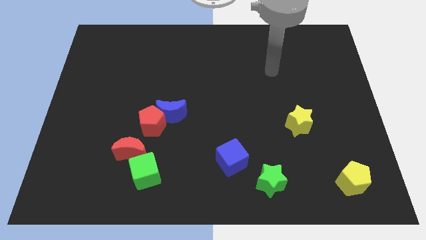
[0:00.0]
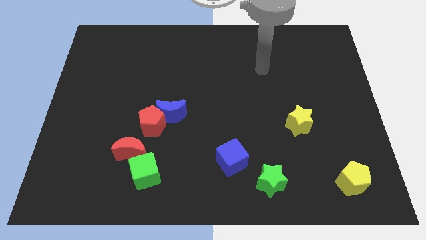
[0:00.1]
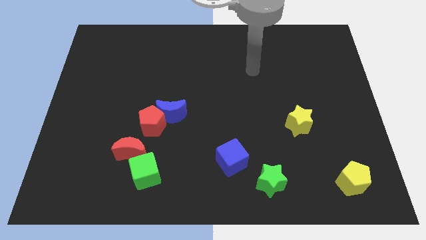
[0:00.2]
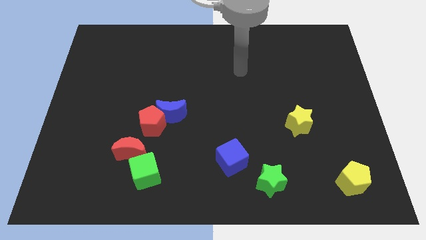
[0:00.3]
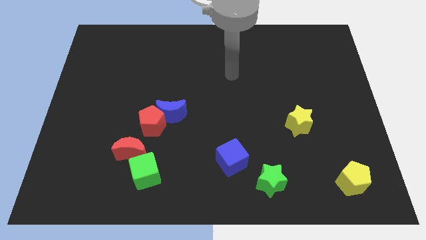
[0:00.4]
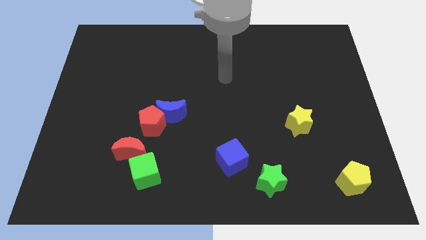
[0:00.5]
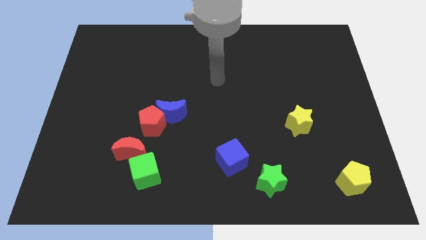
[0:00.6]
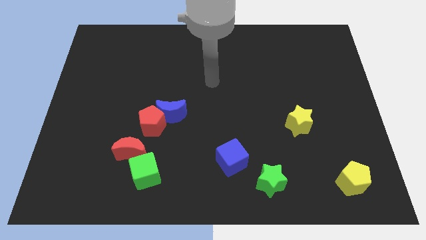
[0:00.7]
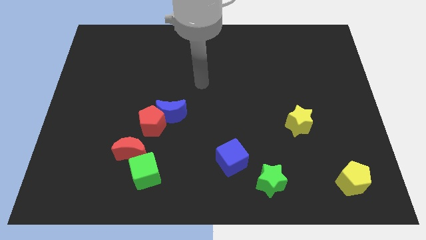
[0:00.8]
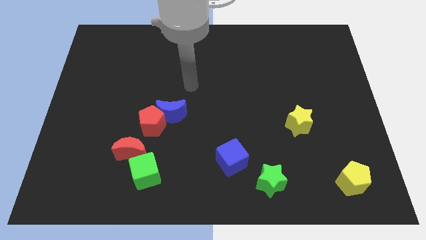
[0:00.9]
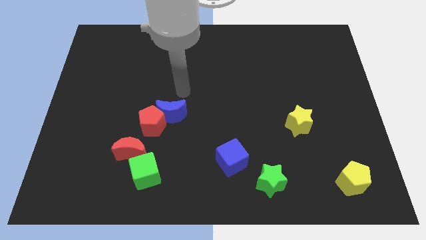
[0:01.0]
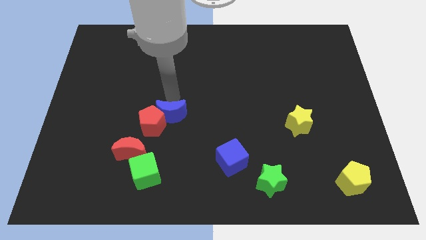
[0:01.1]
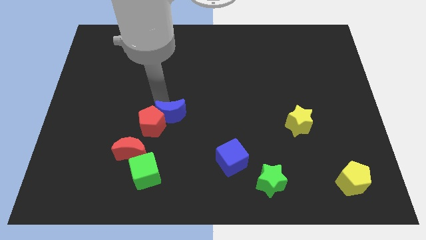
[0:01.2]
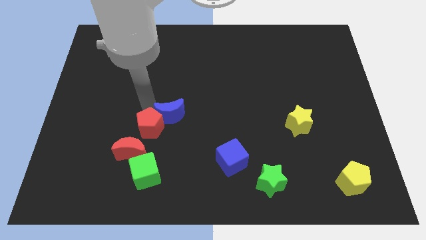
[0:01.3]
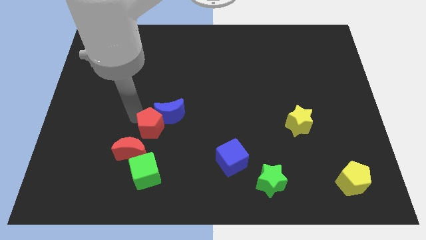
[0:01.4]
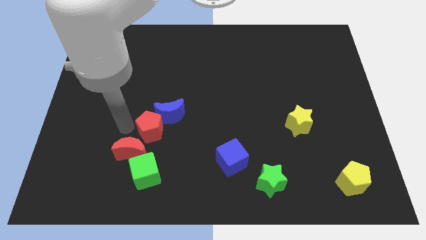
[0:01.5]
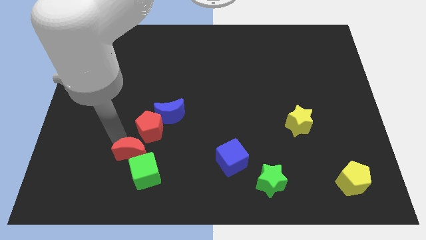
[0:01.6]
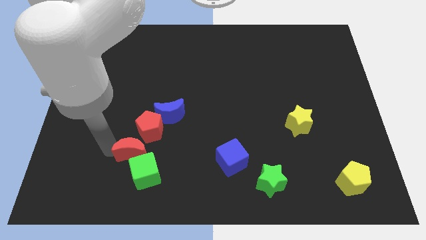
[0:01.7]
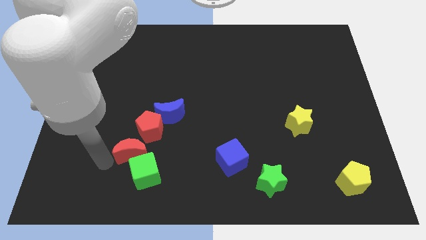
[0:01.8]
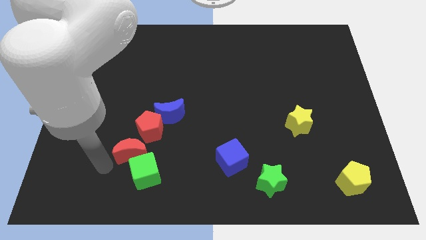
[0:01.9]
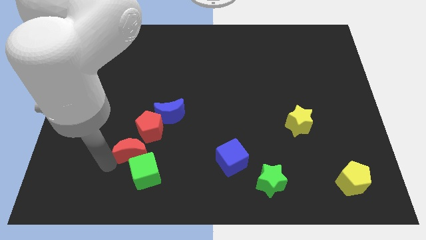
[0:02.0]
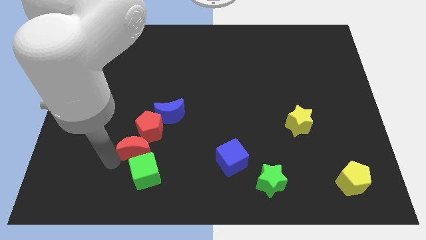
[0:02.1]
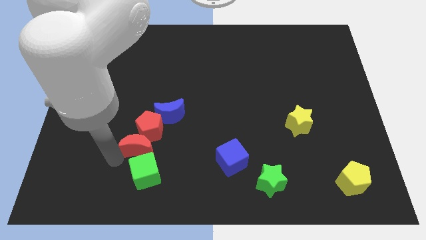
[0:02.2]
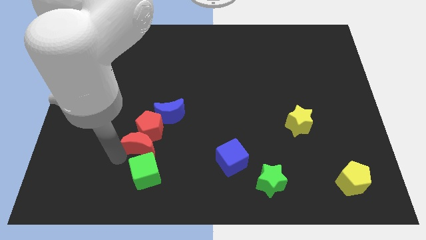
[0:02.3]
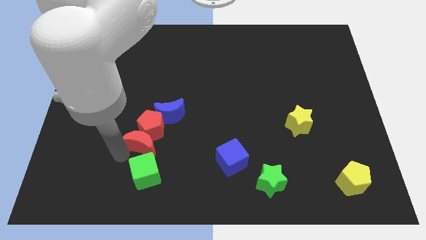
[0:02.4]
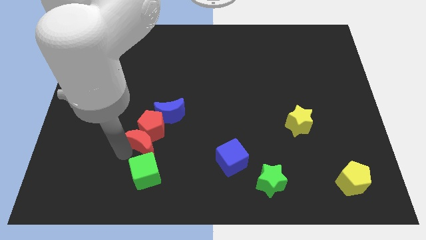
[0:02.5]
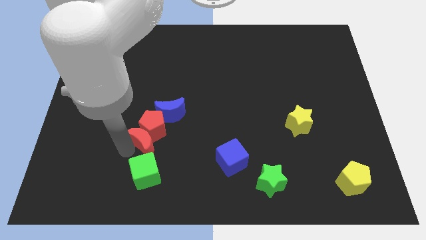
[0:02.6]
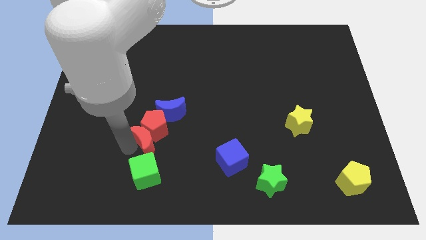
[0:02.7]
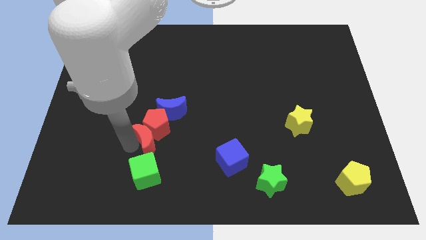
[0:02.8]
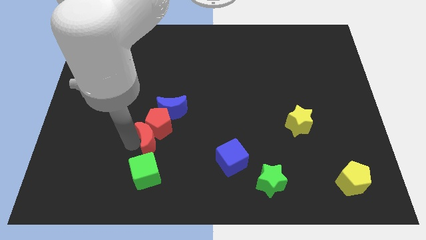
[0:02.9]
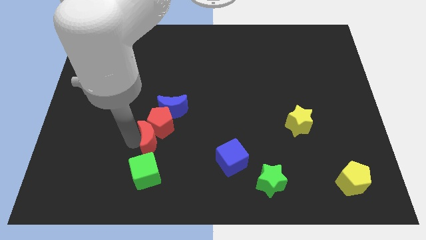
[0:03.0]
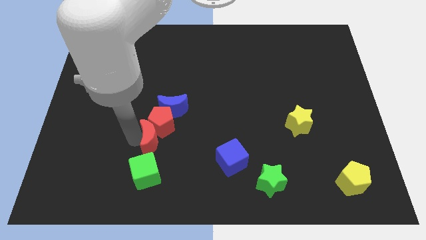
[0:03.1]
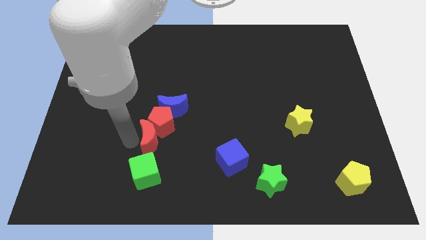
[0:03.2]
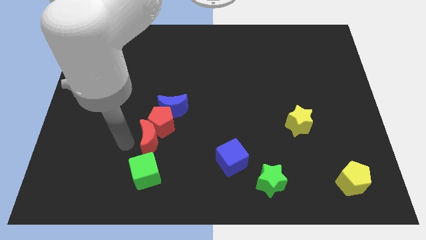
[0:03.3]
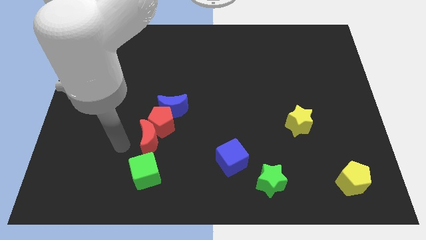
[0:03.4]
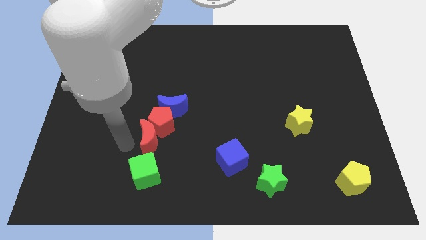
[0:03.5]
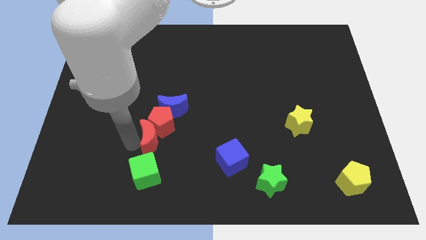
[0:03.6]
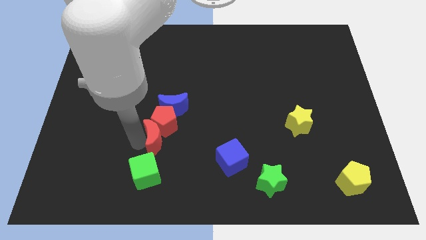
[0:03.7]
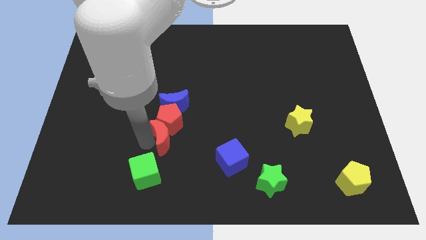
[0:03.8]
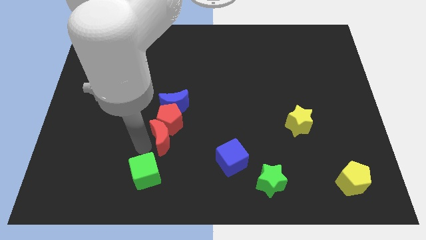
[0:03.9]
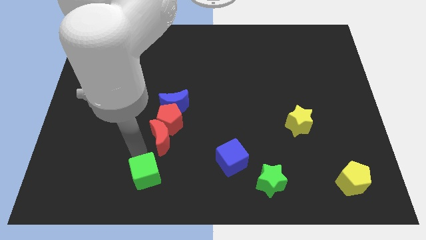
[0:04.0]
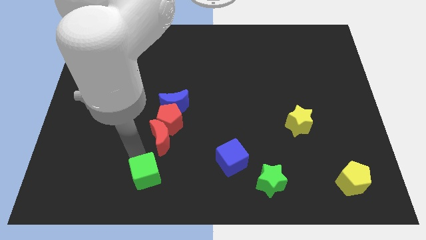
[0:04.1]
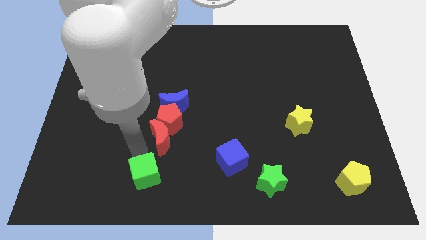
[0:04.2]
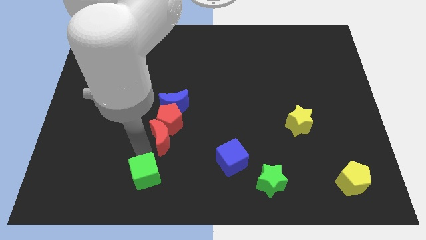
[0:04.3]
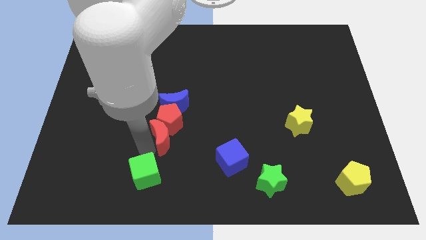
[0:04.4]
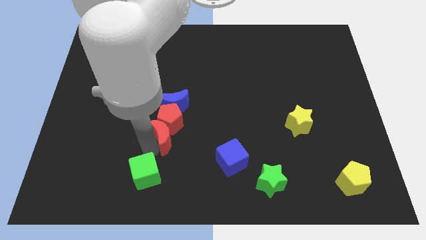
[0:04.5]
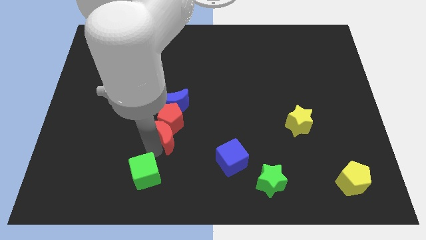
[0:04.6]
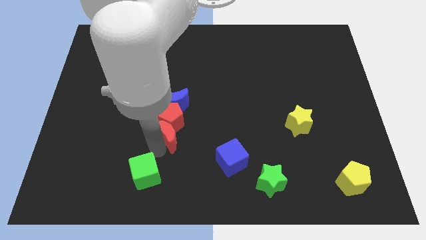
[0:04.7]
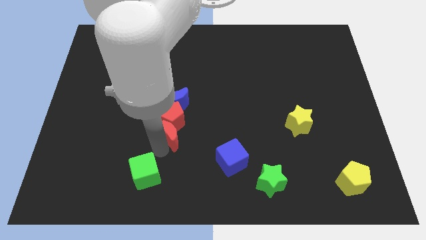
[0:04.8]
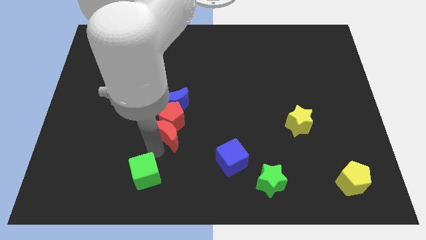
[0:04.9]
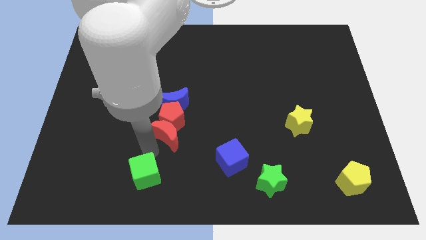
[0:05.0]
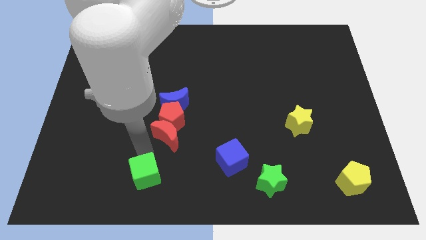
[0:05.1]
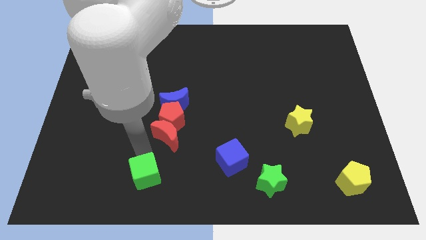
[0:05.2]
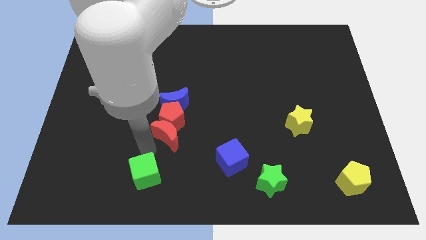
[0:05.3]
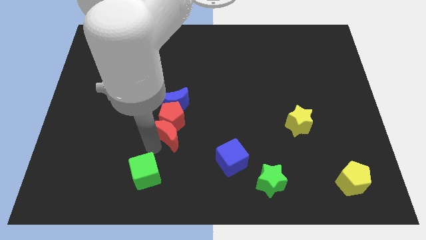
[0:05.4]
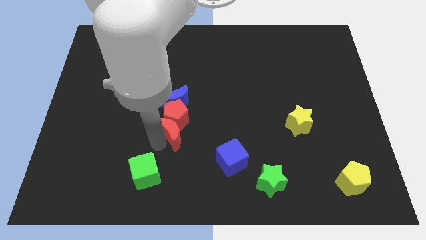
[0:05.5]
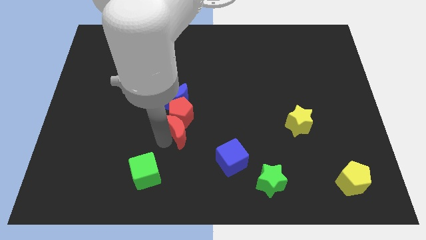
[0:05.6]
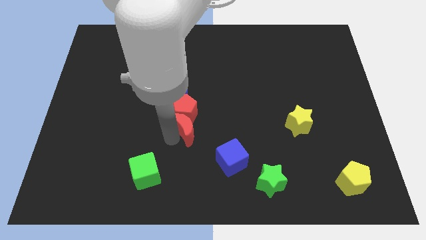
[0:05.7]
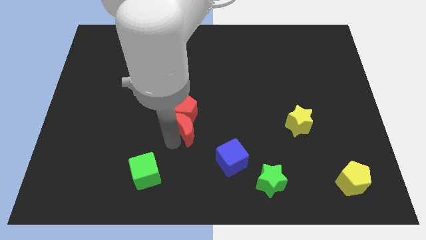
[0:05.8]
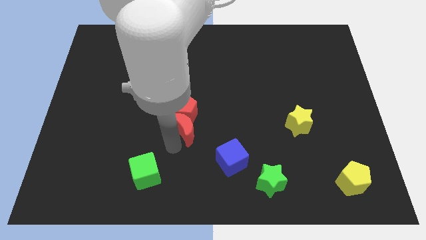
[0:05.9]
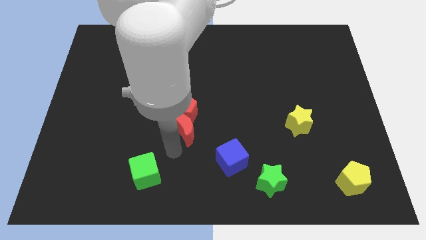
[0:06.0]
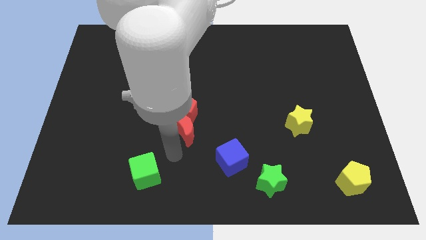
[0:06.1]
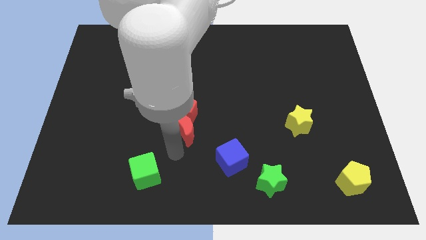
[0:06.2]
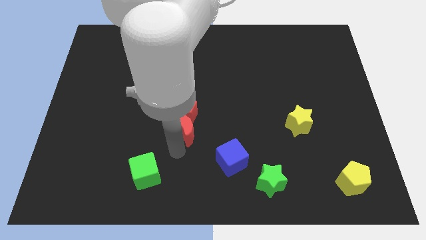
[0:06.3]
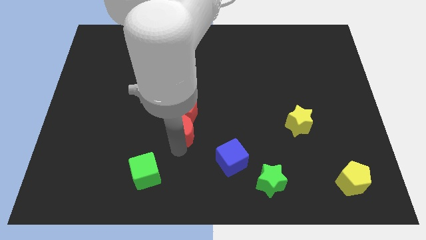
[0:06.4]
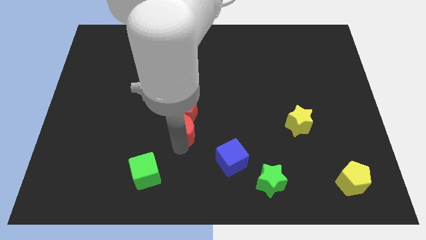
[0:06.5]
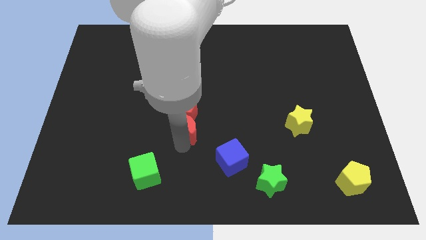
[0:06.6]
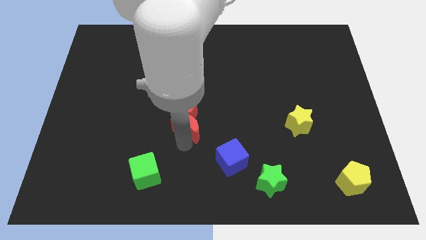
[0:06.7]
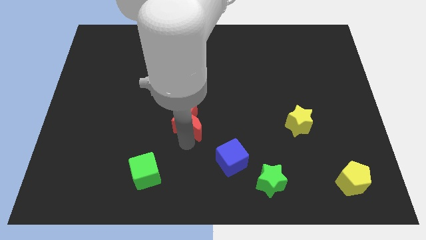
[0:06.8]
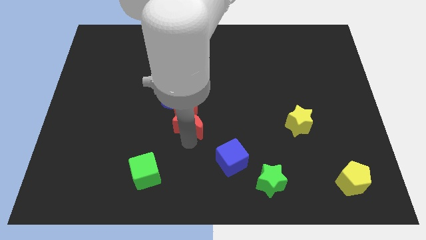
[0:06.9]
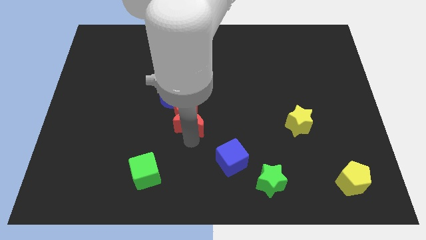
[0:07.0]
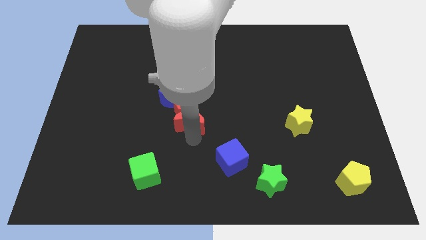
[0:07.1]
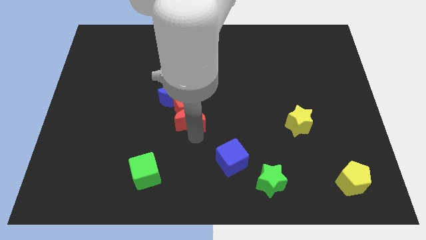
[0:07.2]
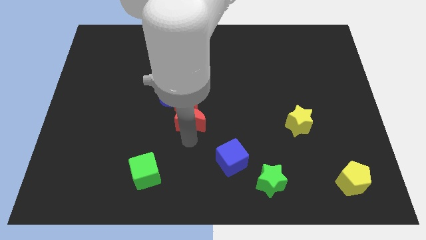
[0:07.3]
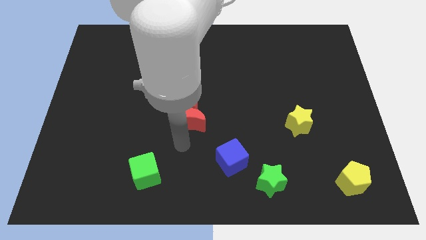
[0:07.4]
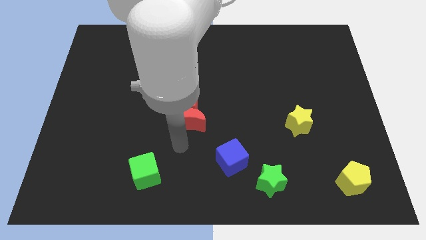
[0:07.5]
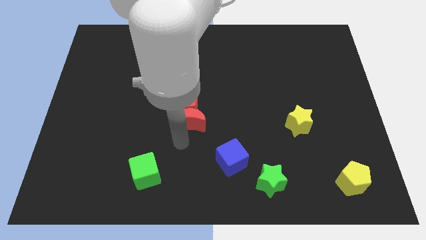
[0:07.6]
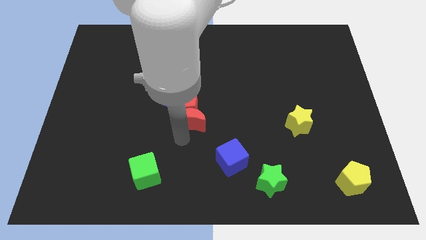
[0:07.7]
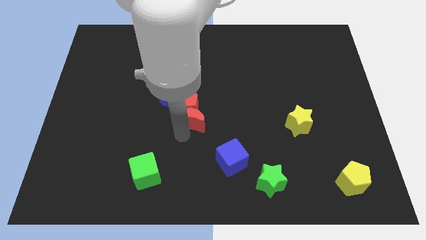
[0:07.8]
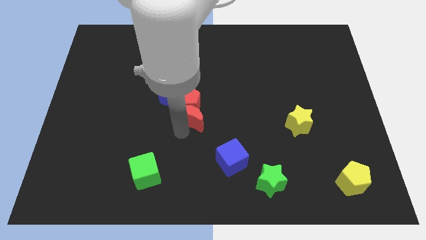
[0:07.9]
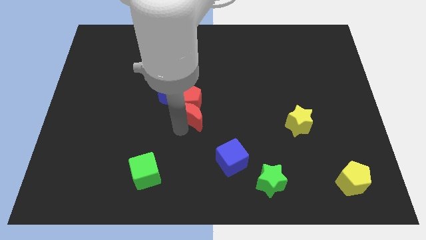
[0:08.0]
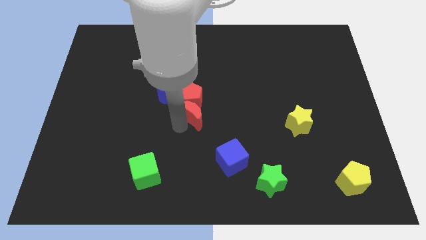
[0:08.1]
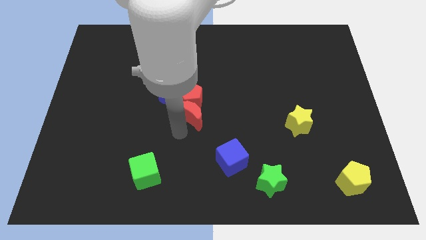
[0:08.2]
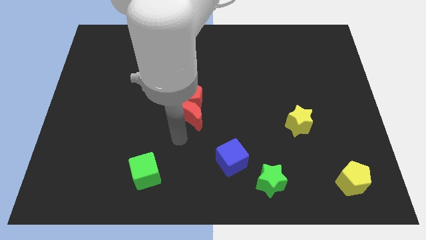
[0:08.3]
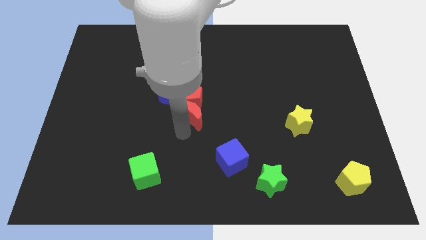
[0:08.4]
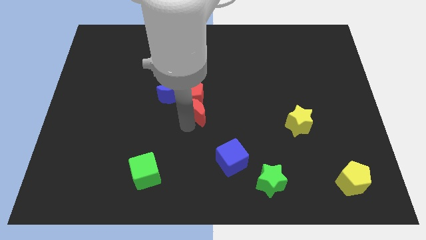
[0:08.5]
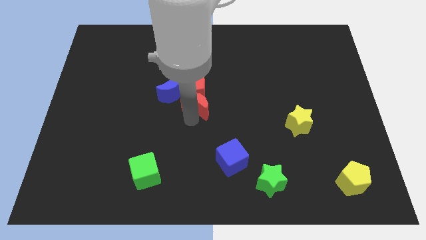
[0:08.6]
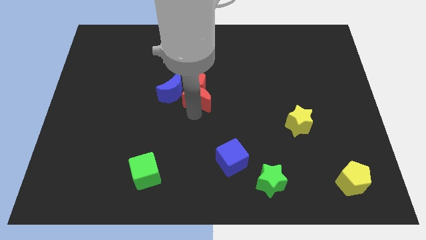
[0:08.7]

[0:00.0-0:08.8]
move the red moon diagonally upwards and right
